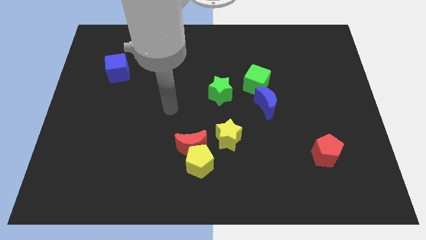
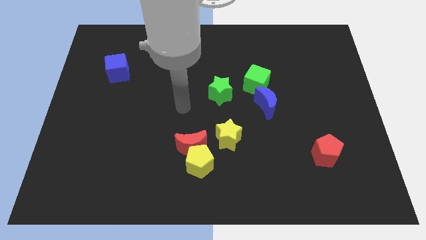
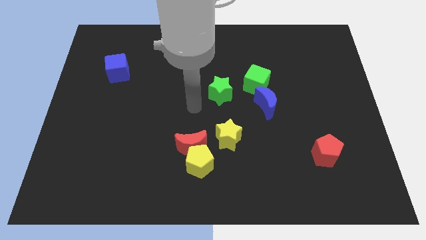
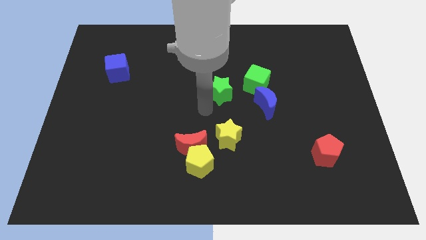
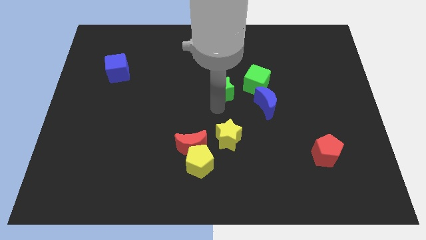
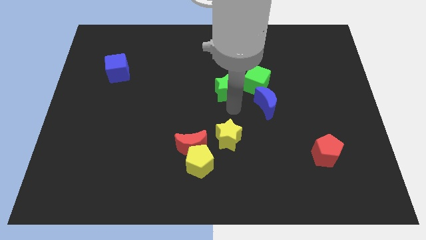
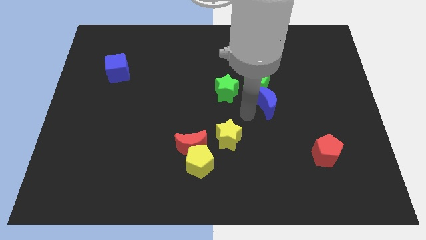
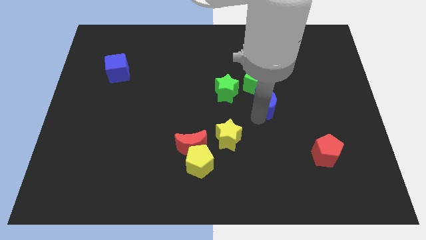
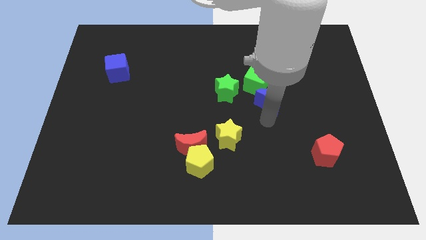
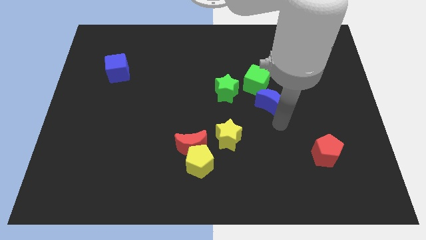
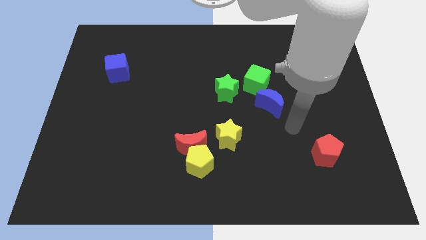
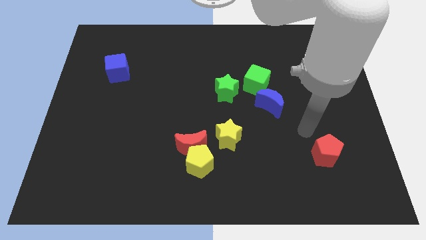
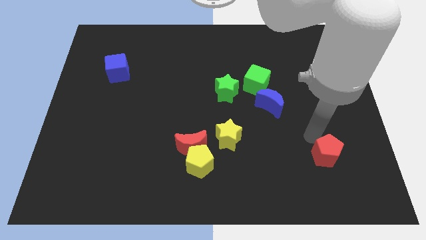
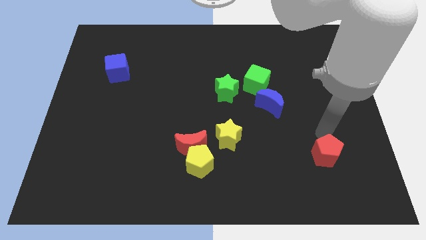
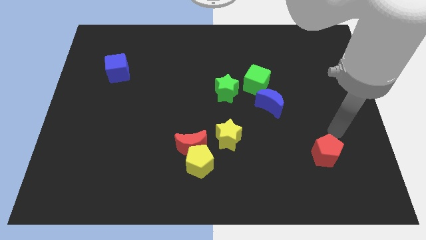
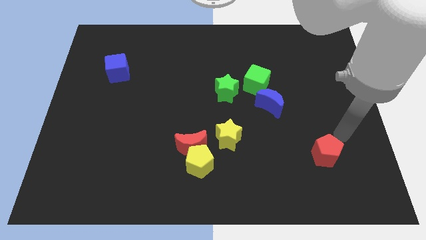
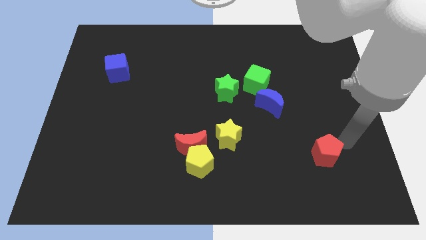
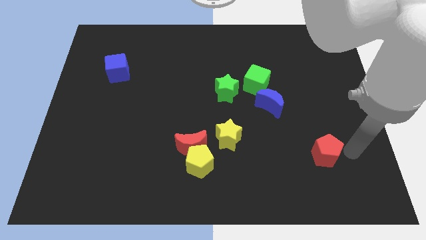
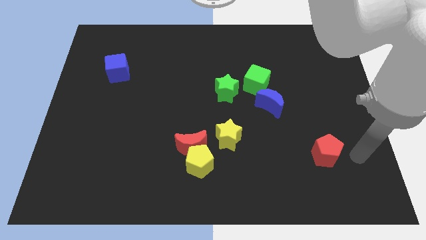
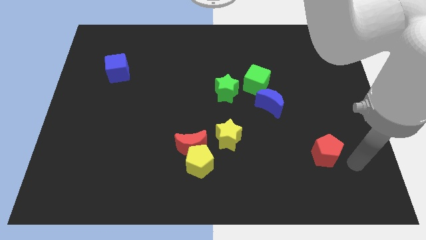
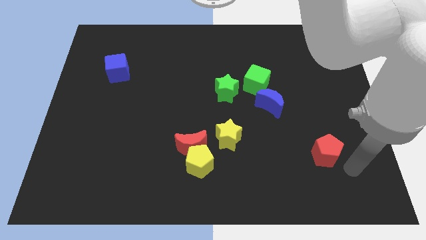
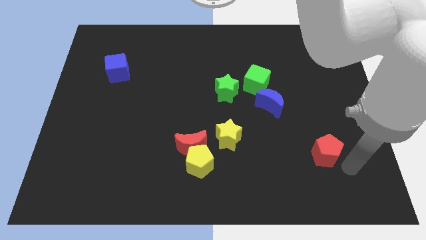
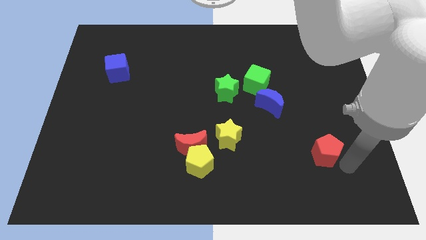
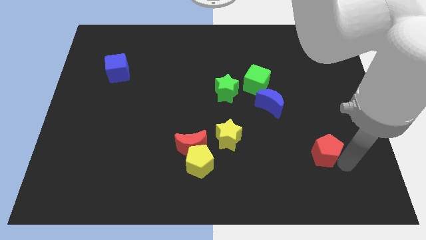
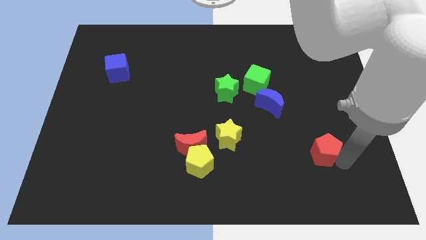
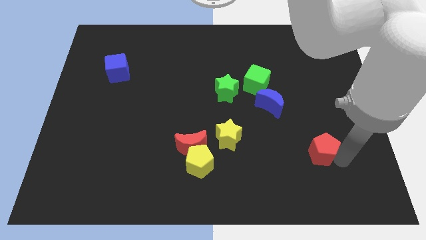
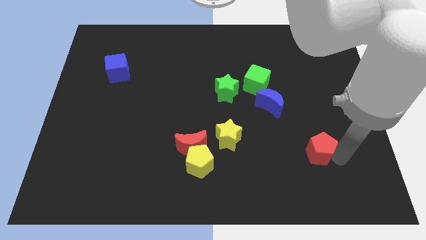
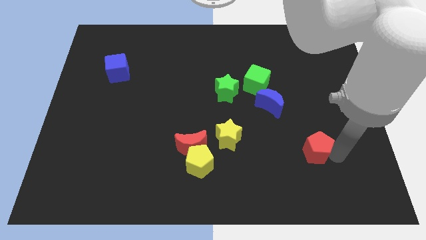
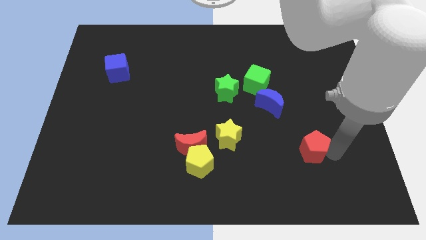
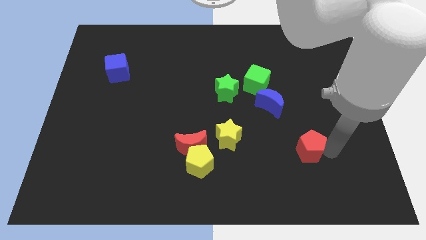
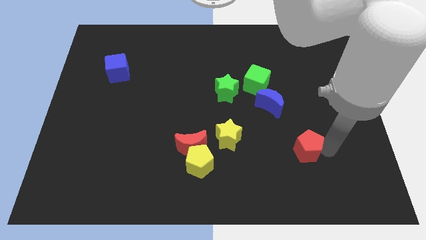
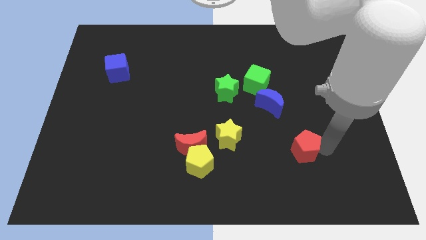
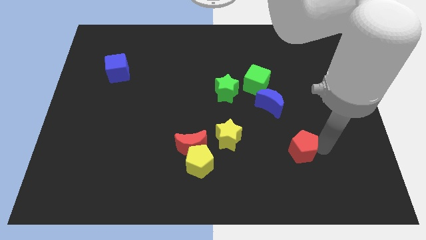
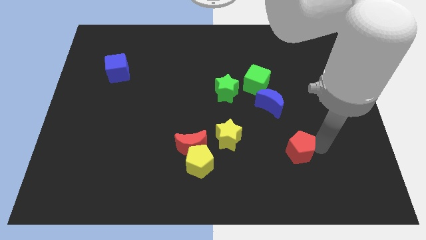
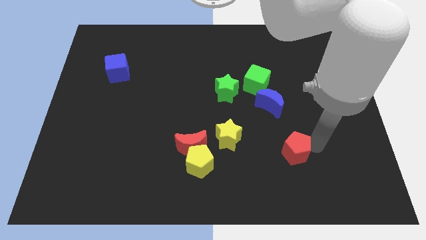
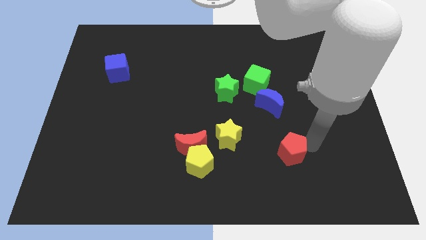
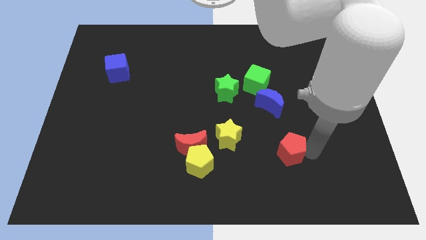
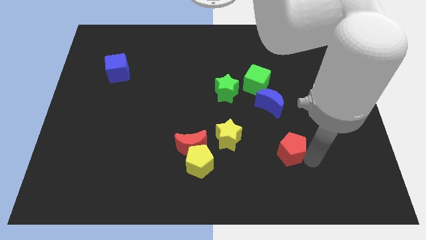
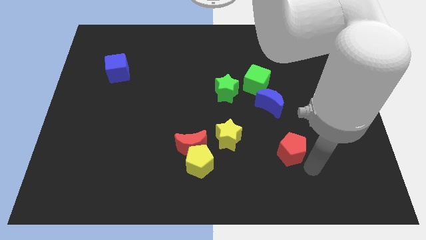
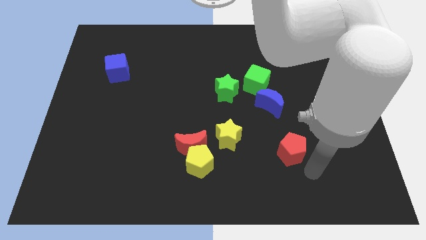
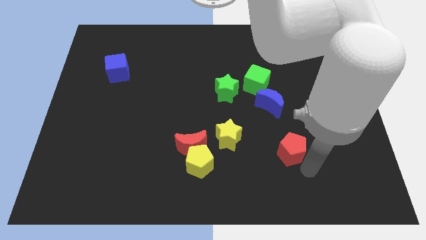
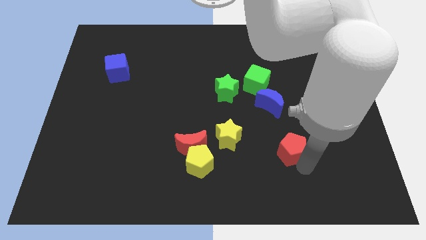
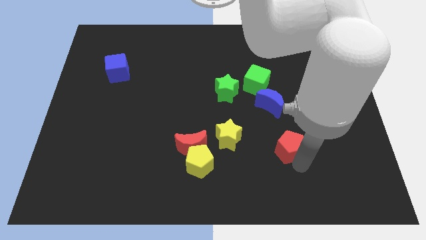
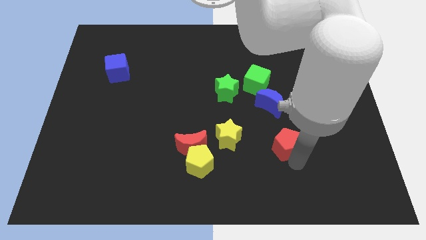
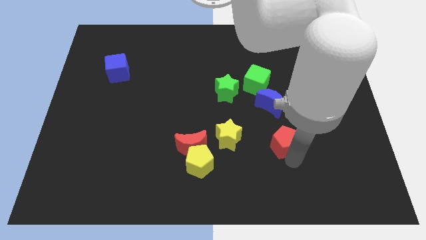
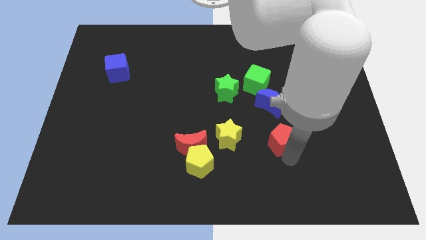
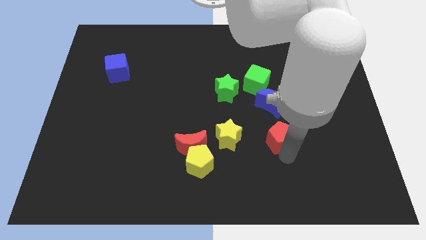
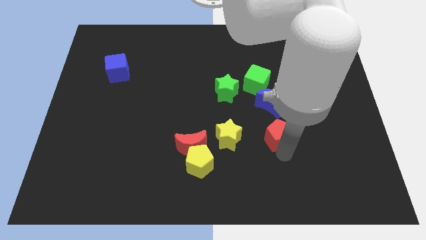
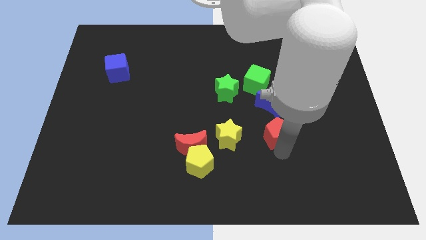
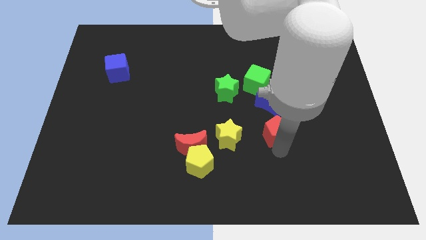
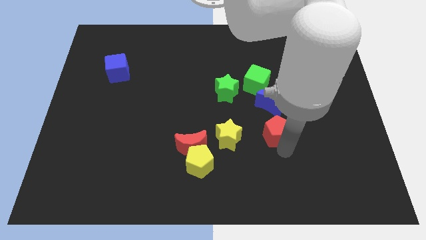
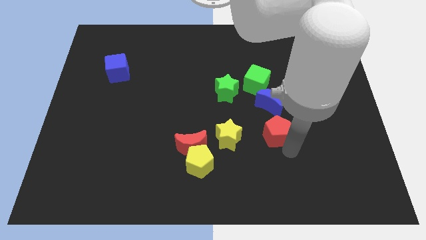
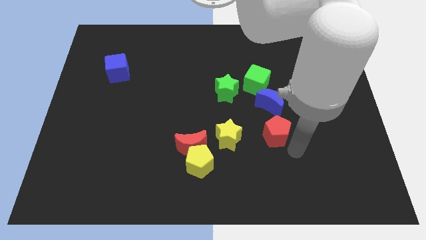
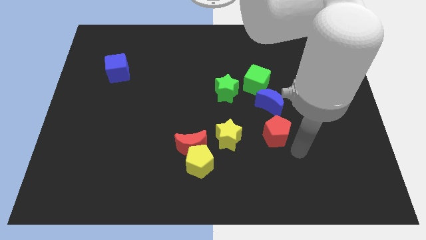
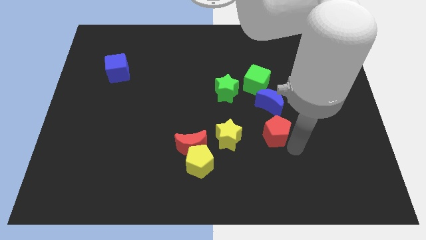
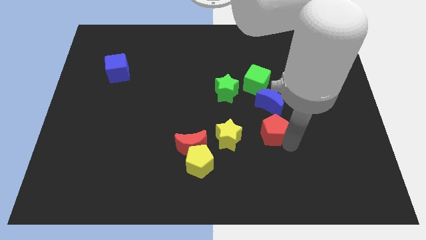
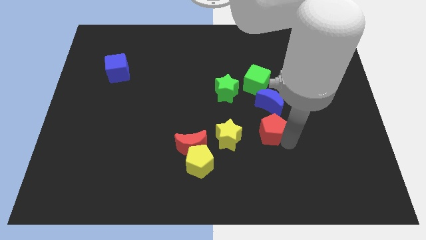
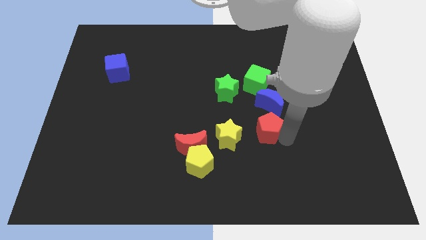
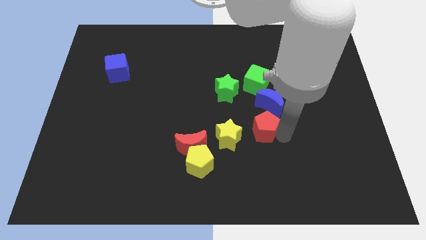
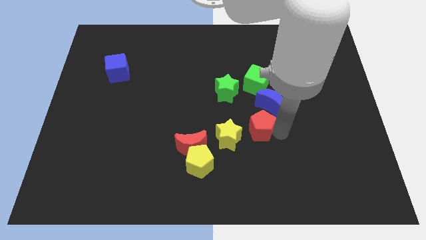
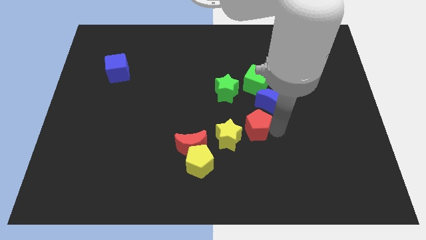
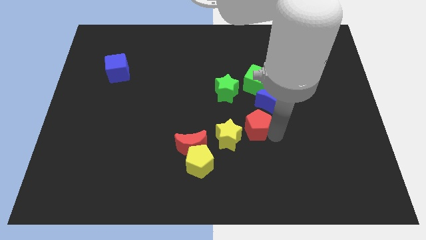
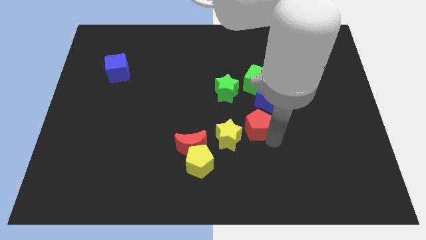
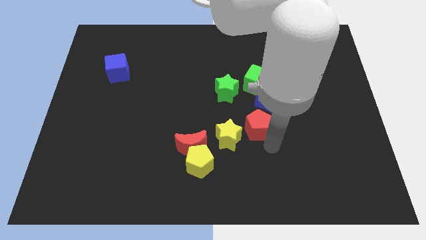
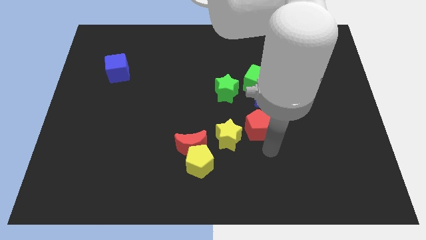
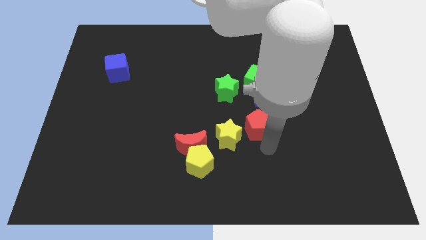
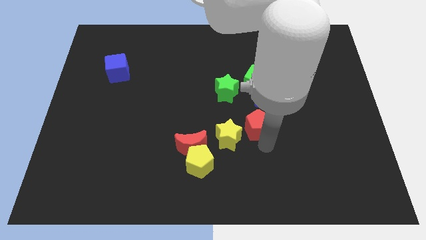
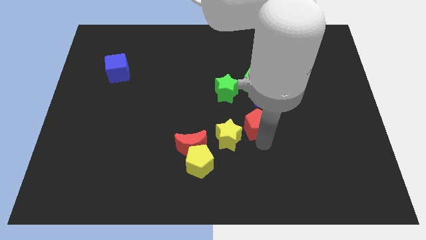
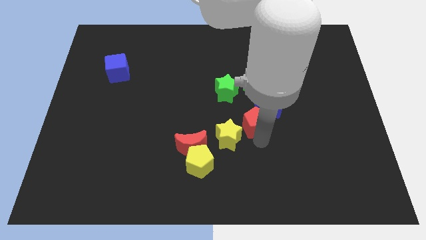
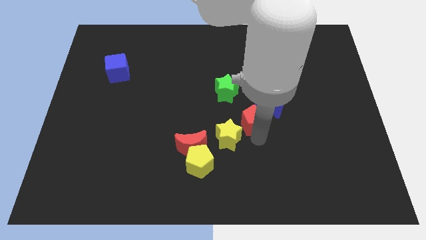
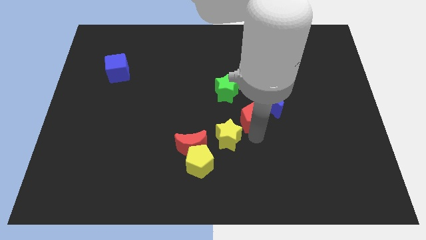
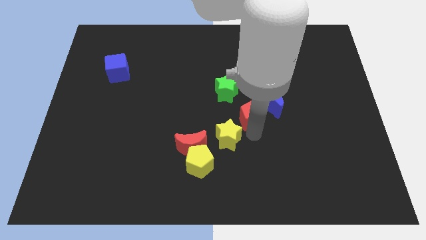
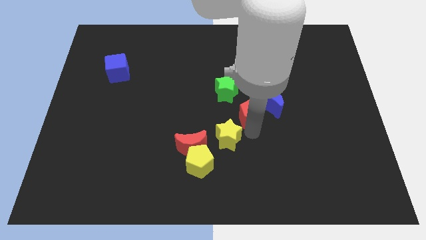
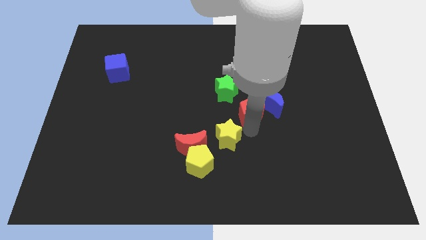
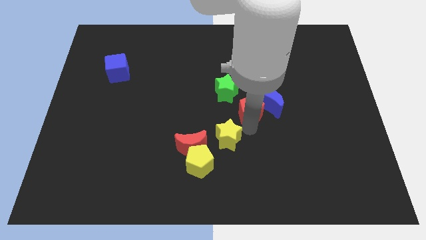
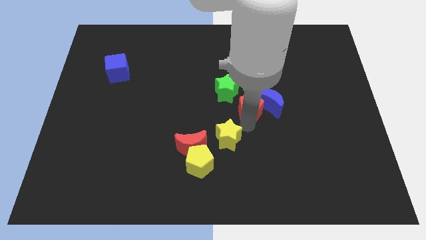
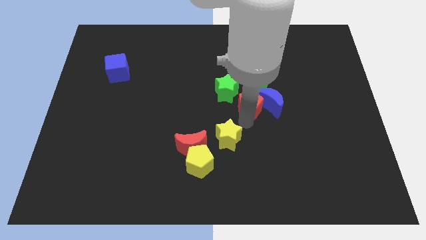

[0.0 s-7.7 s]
move the red pentagon upwards and left

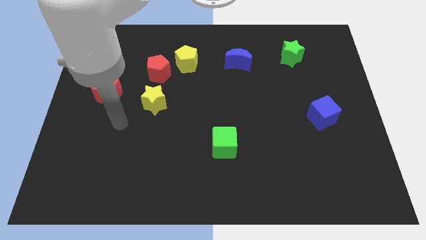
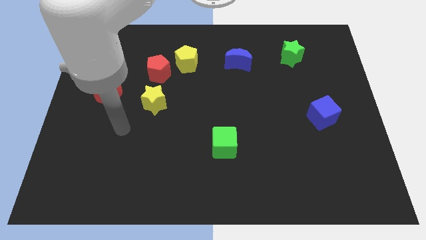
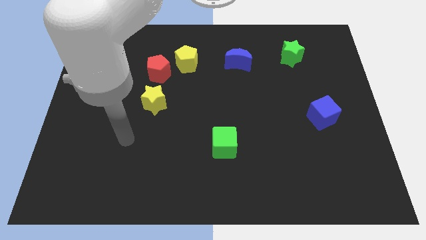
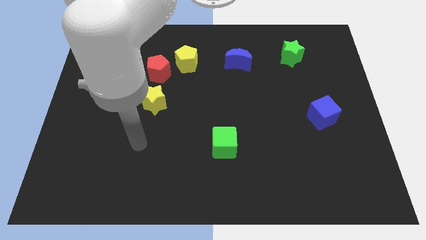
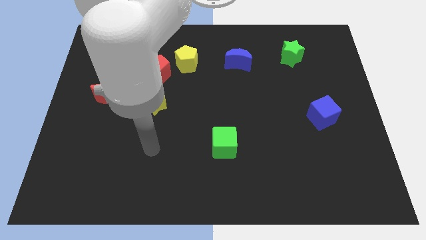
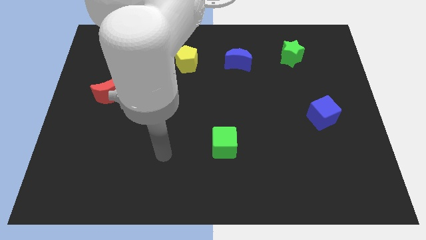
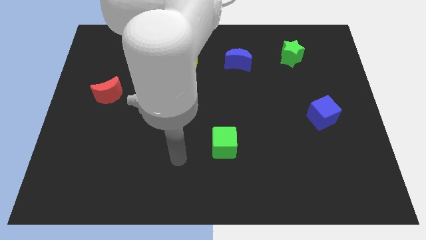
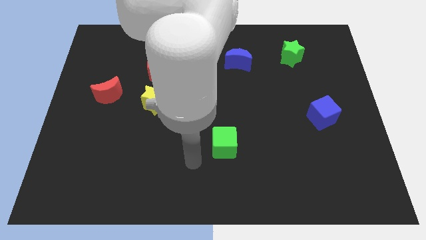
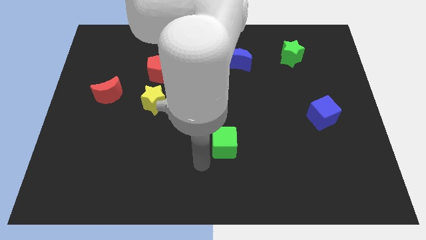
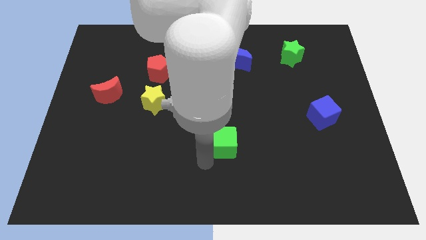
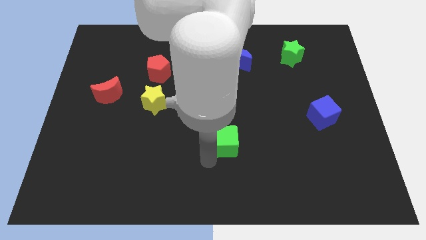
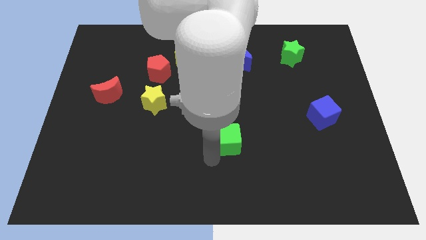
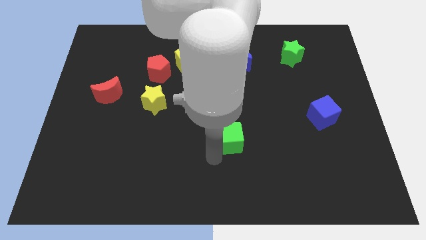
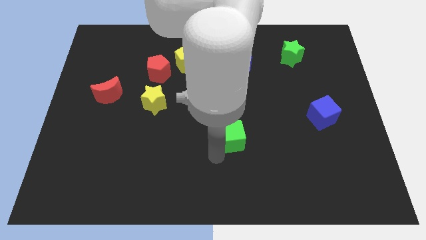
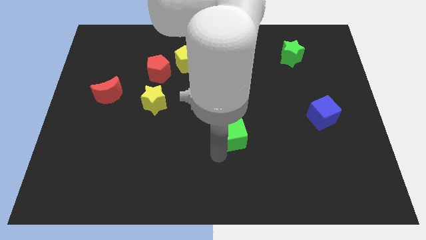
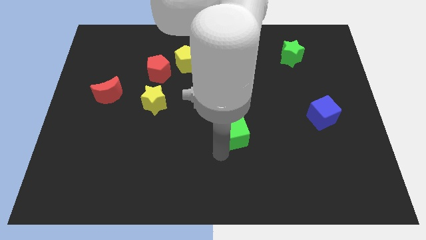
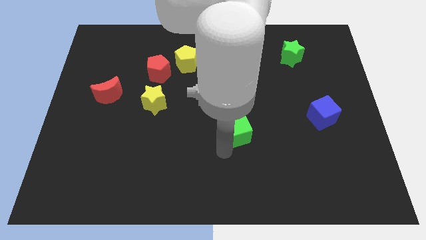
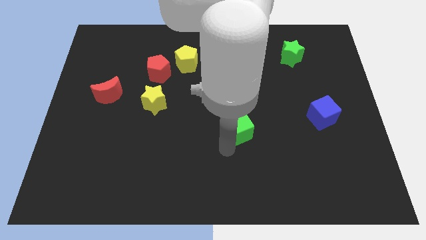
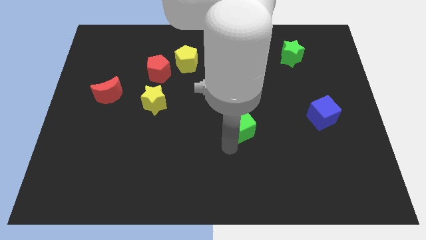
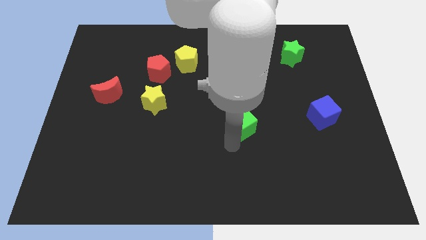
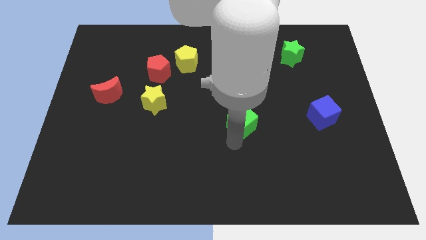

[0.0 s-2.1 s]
slightly push the green cube upwards and to the right
